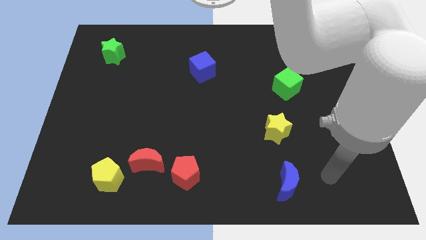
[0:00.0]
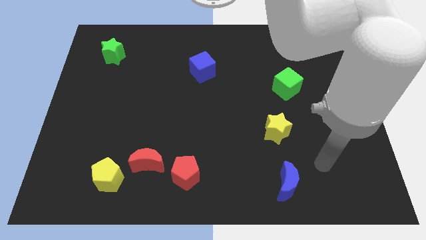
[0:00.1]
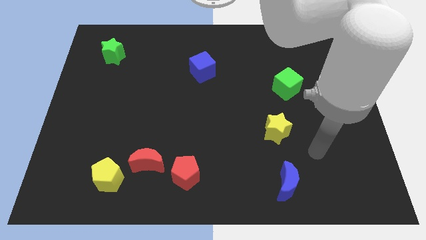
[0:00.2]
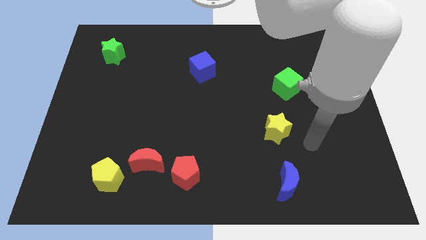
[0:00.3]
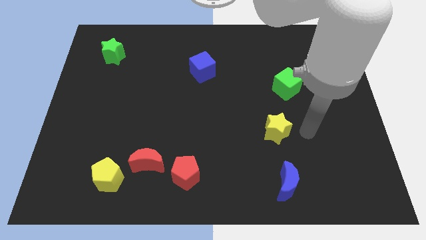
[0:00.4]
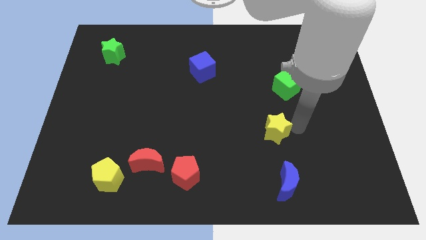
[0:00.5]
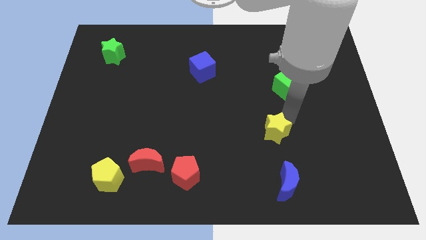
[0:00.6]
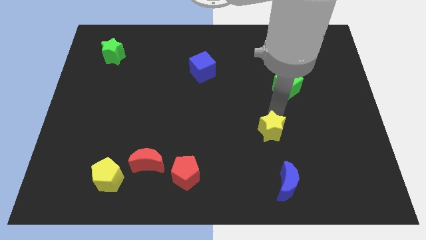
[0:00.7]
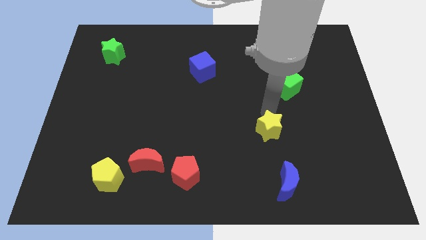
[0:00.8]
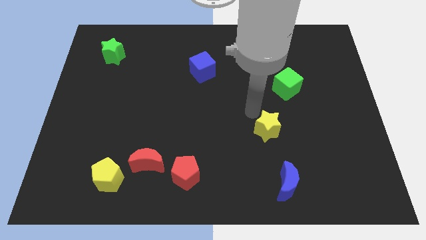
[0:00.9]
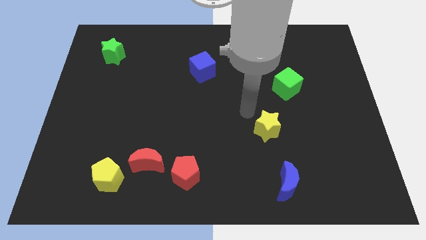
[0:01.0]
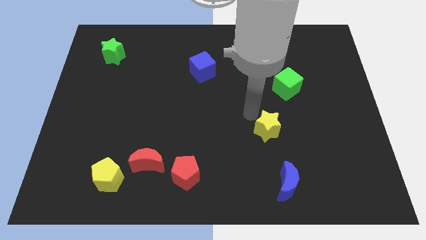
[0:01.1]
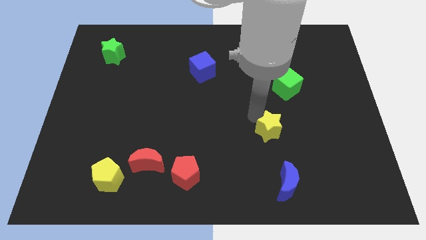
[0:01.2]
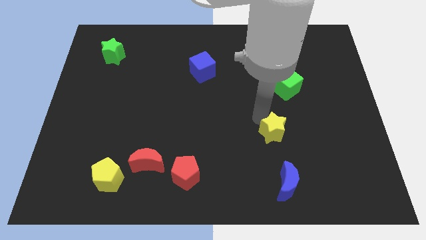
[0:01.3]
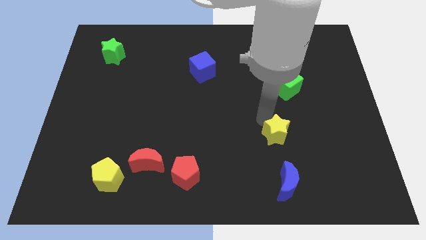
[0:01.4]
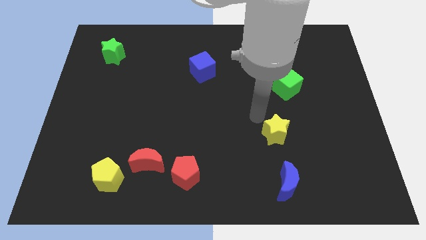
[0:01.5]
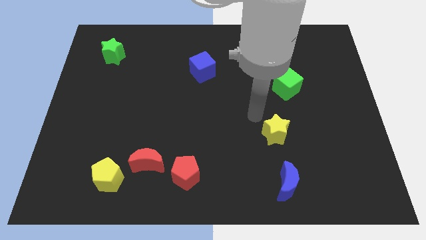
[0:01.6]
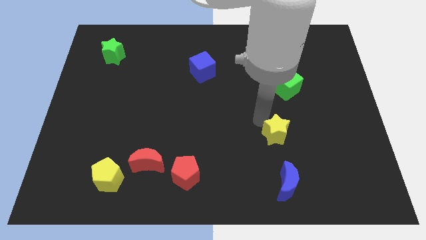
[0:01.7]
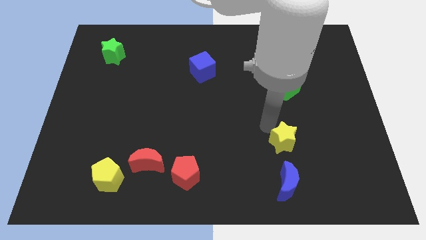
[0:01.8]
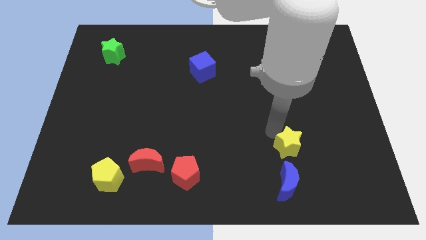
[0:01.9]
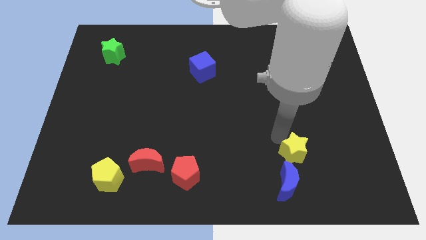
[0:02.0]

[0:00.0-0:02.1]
slide the yellow star to the top right of the blue moon

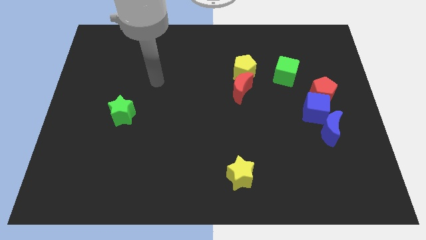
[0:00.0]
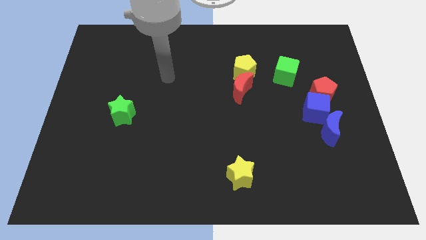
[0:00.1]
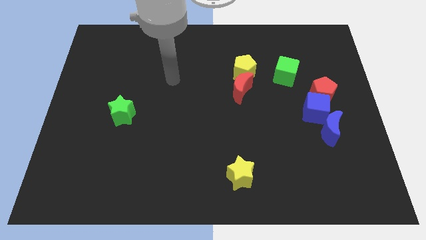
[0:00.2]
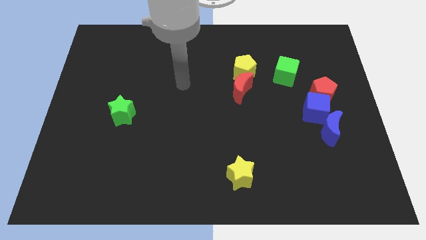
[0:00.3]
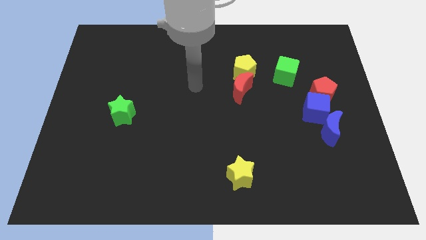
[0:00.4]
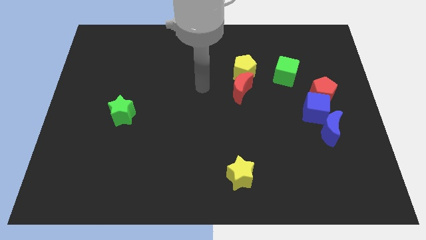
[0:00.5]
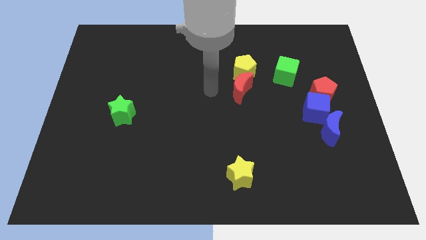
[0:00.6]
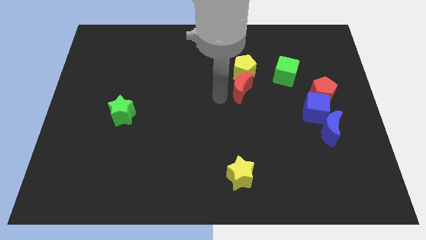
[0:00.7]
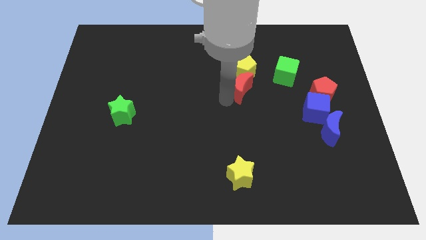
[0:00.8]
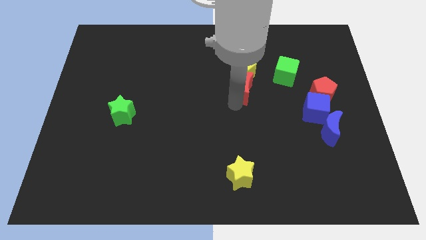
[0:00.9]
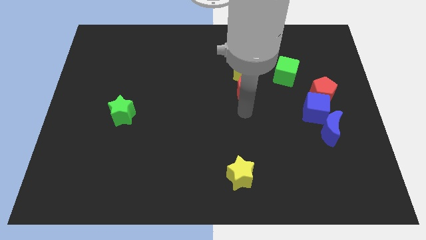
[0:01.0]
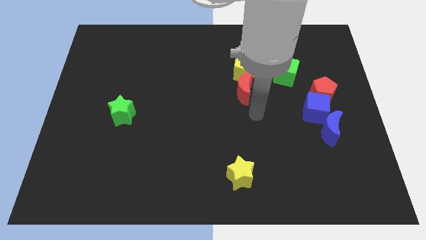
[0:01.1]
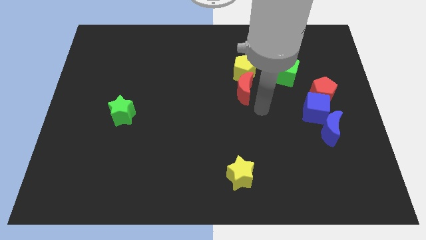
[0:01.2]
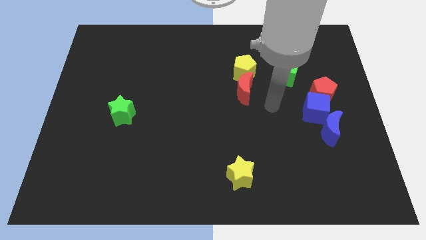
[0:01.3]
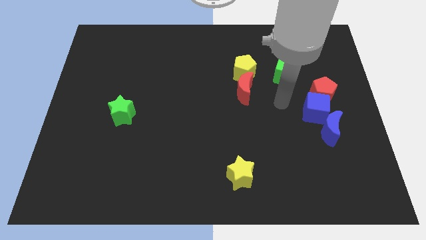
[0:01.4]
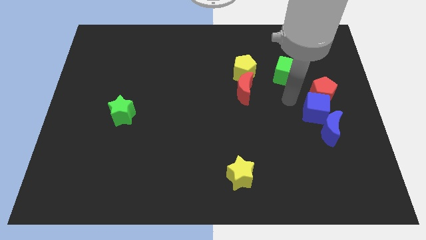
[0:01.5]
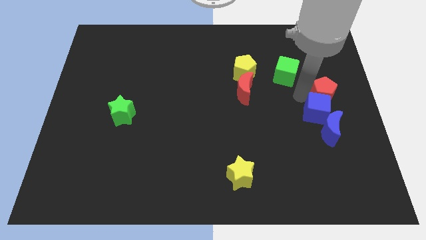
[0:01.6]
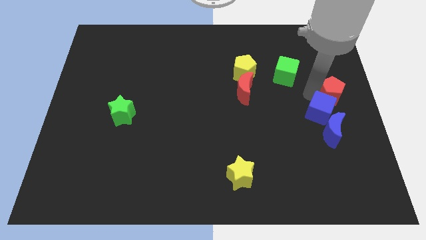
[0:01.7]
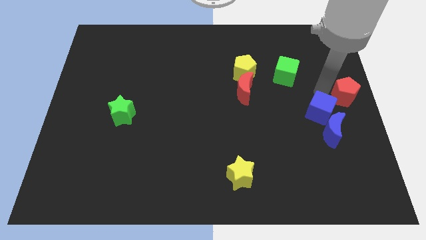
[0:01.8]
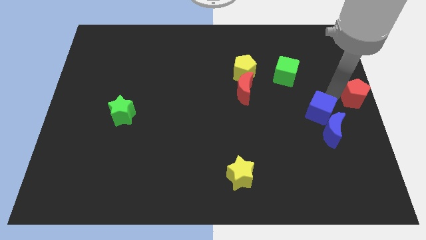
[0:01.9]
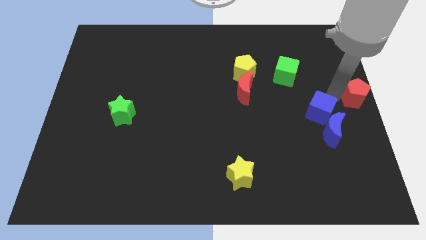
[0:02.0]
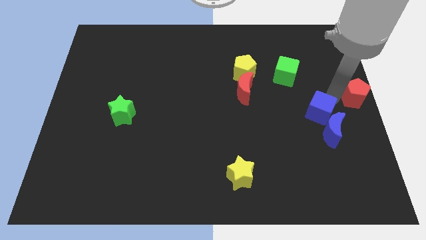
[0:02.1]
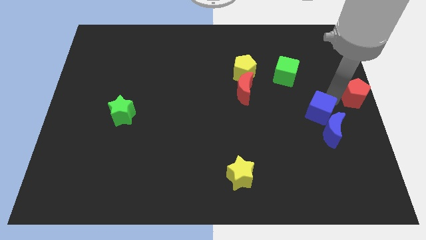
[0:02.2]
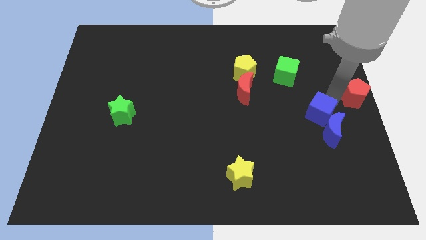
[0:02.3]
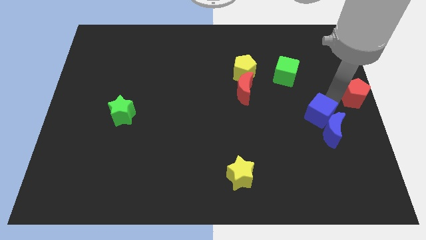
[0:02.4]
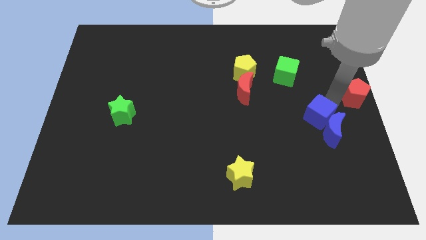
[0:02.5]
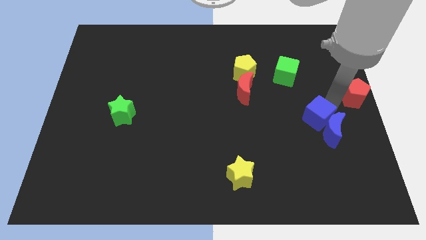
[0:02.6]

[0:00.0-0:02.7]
push the blue cube left of the blue moon

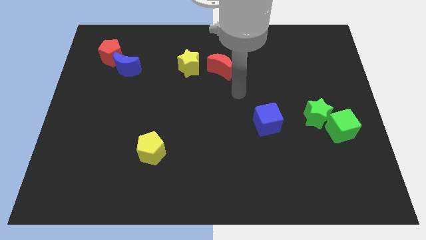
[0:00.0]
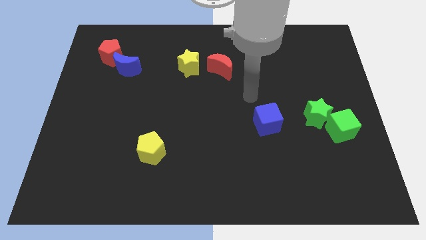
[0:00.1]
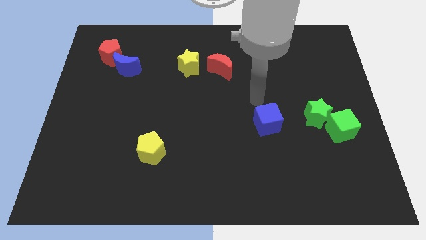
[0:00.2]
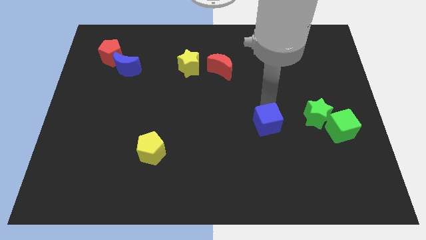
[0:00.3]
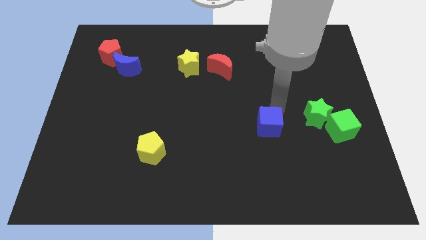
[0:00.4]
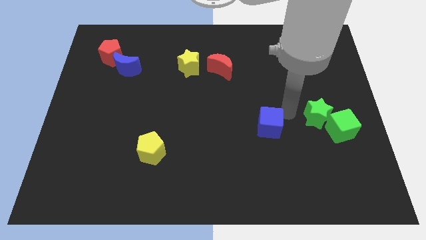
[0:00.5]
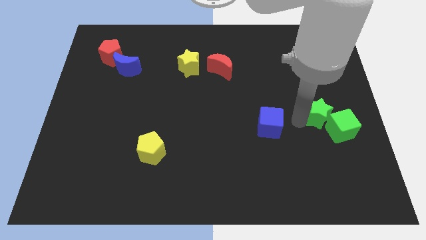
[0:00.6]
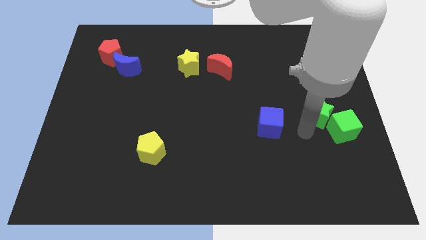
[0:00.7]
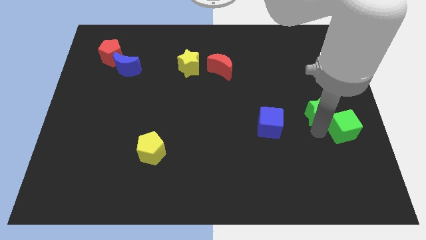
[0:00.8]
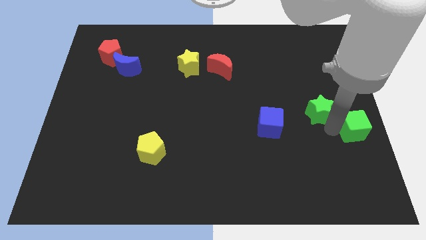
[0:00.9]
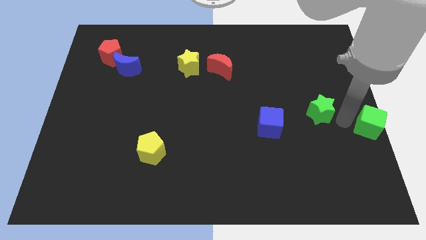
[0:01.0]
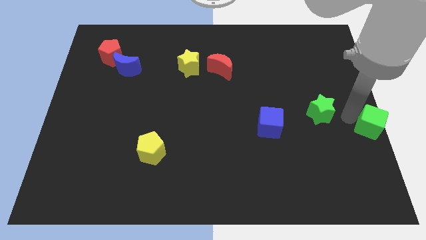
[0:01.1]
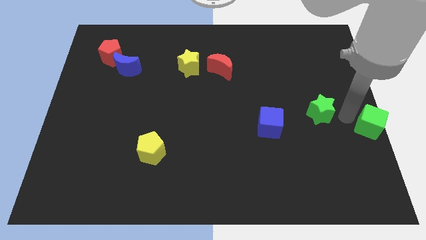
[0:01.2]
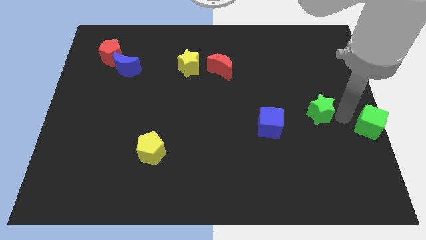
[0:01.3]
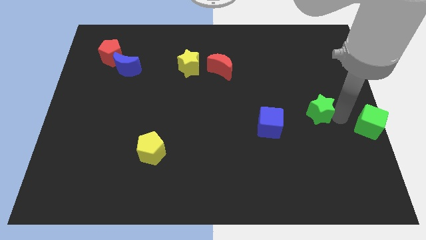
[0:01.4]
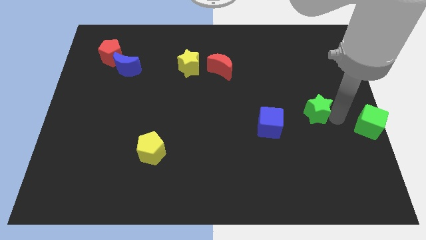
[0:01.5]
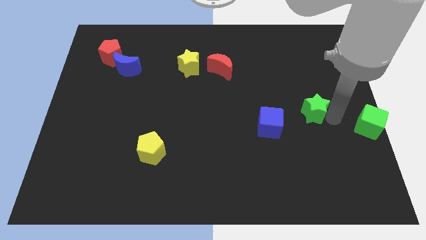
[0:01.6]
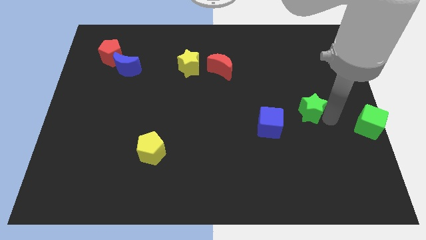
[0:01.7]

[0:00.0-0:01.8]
push the green star diagonally up and to the right of the blue cube

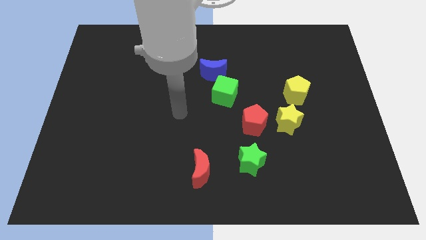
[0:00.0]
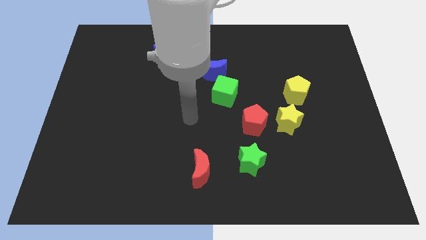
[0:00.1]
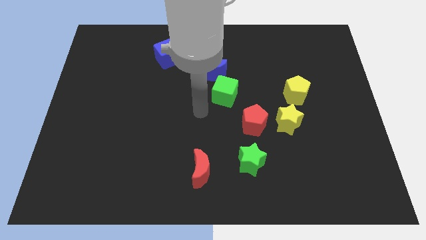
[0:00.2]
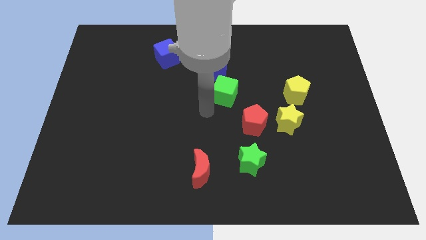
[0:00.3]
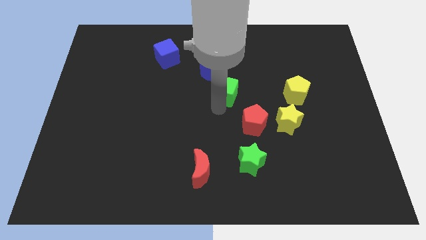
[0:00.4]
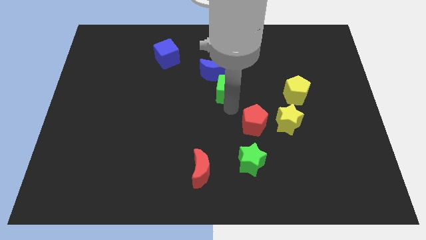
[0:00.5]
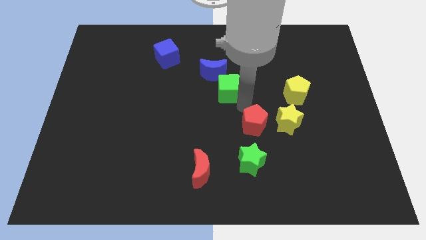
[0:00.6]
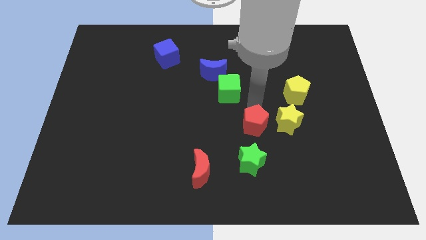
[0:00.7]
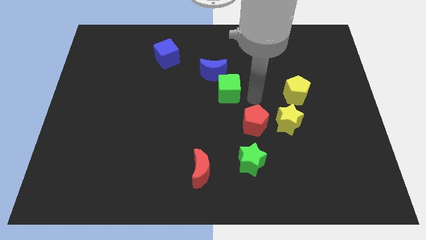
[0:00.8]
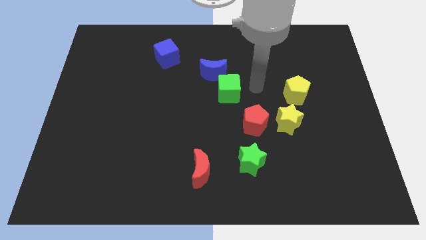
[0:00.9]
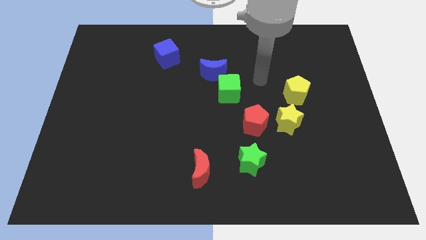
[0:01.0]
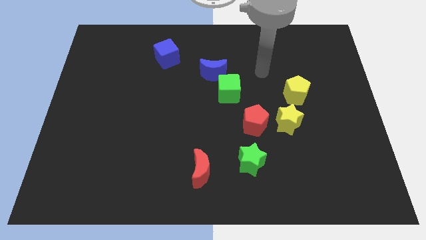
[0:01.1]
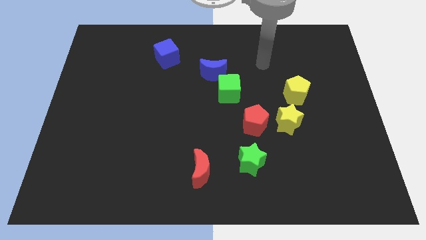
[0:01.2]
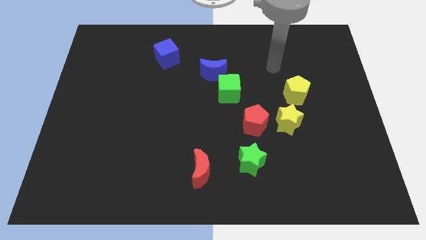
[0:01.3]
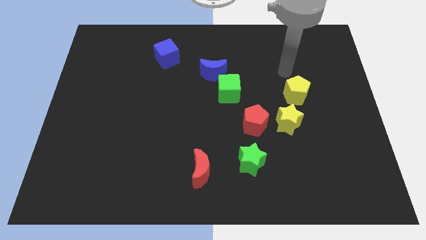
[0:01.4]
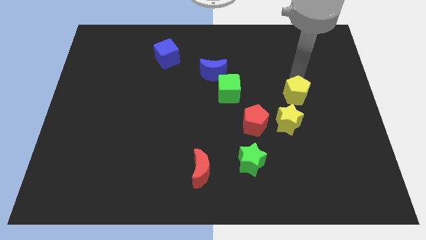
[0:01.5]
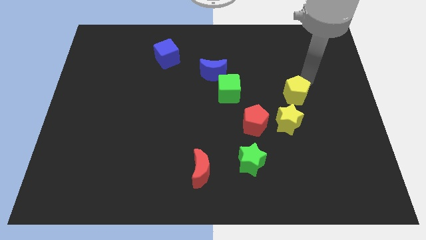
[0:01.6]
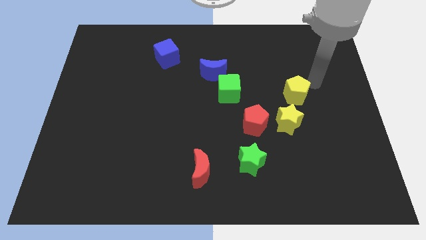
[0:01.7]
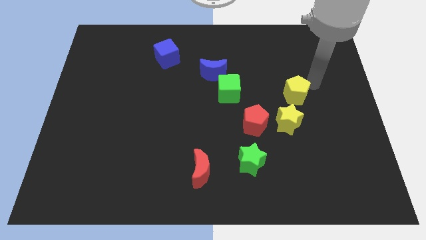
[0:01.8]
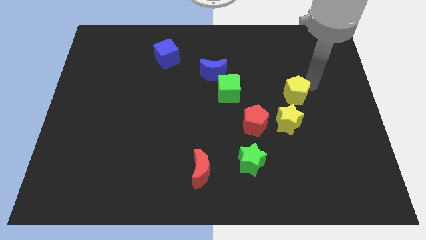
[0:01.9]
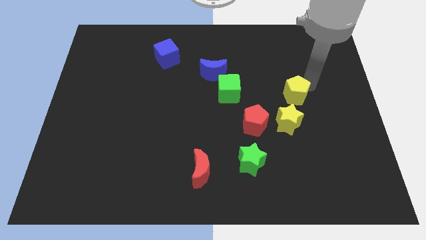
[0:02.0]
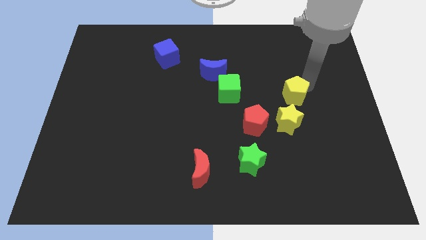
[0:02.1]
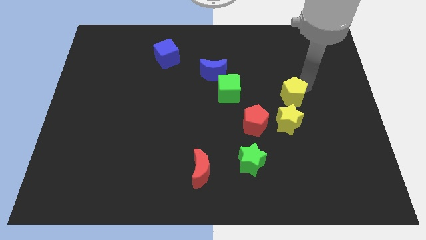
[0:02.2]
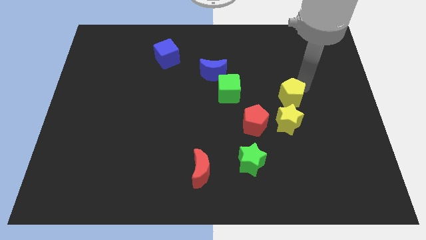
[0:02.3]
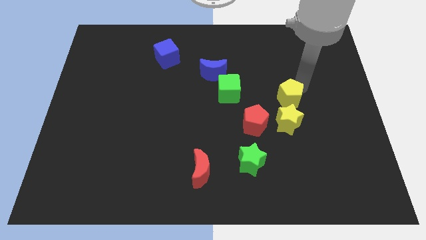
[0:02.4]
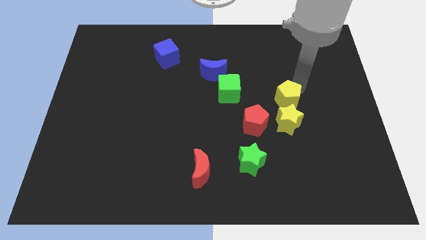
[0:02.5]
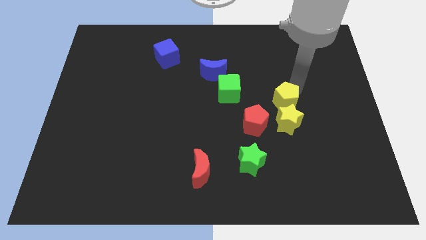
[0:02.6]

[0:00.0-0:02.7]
slide the yellow pentagon to the top left side of the yellow star
